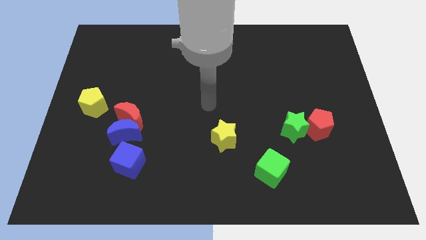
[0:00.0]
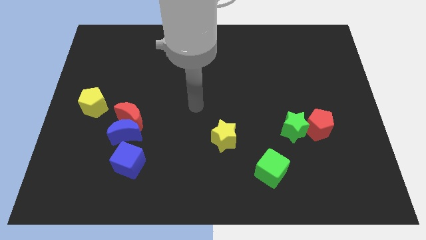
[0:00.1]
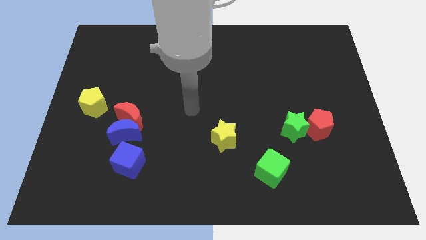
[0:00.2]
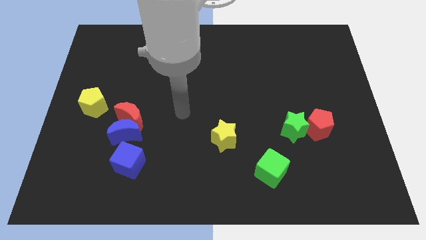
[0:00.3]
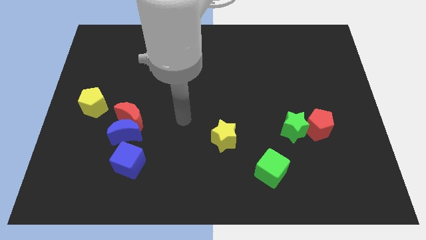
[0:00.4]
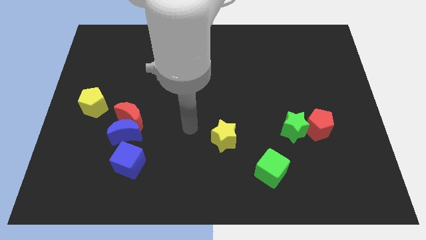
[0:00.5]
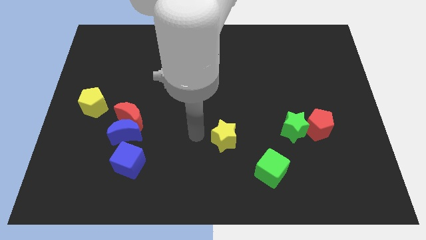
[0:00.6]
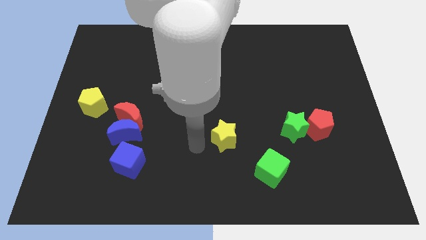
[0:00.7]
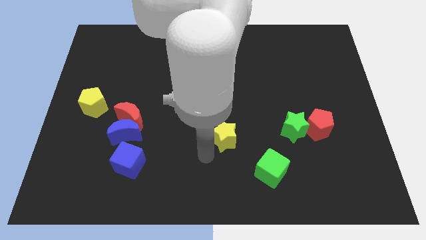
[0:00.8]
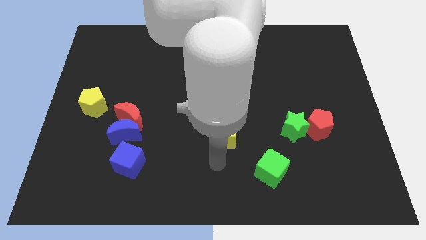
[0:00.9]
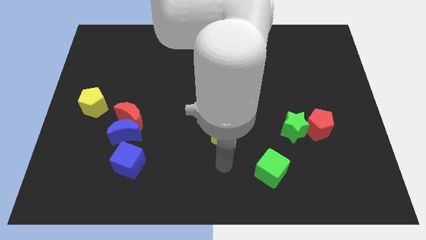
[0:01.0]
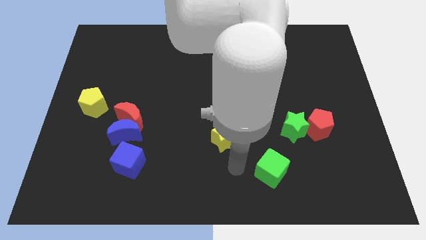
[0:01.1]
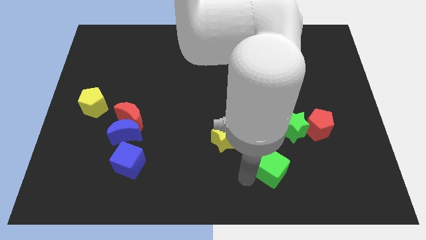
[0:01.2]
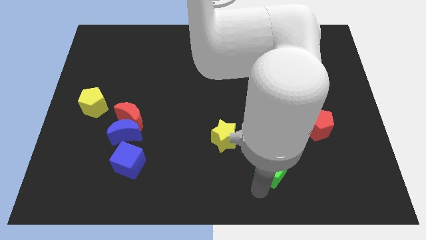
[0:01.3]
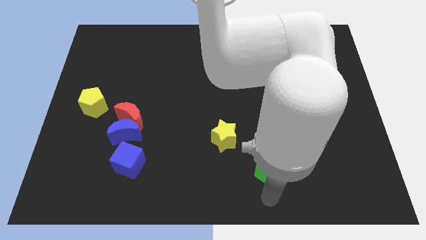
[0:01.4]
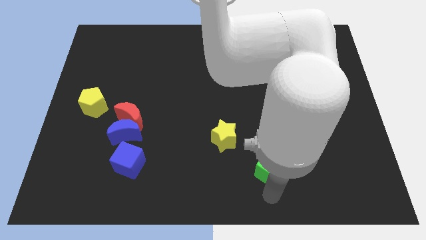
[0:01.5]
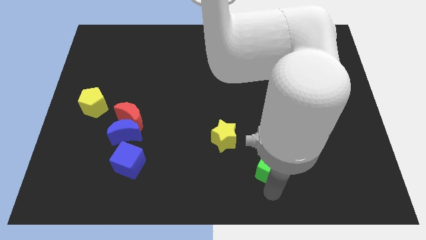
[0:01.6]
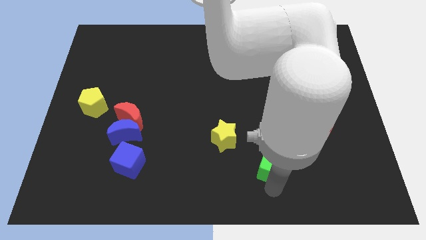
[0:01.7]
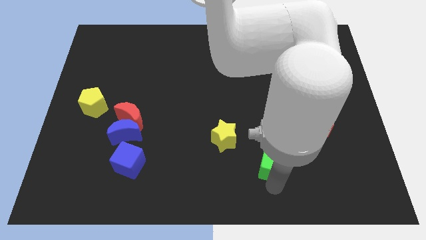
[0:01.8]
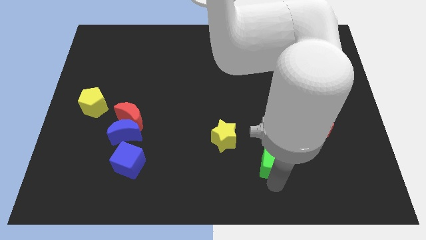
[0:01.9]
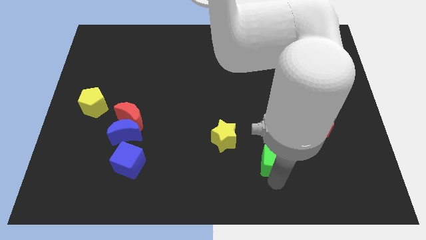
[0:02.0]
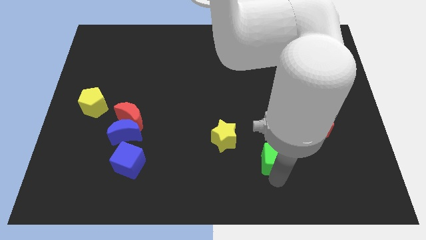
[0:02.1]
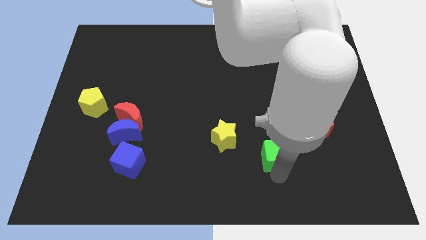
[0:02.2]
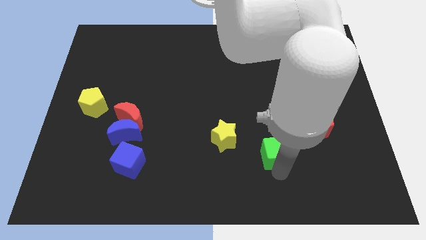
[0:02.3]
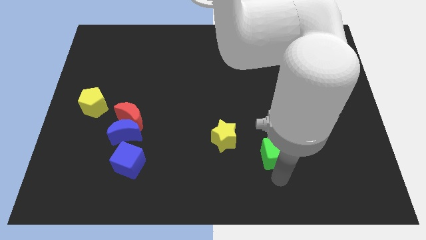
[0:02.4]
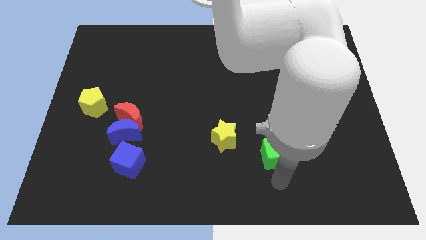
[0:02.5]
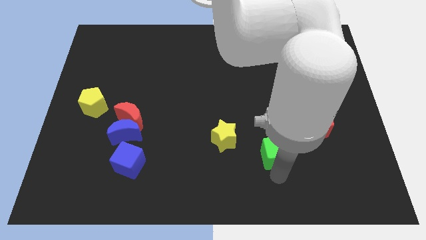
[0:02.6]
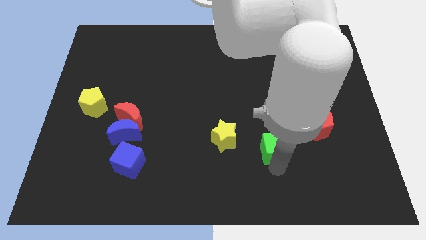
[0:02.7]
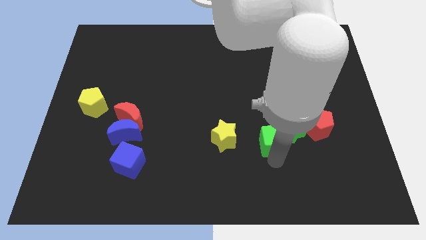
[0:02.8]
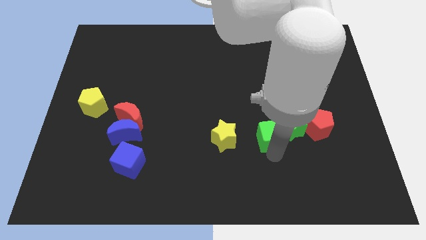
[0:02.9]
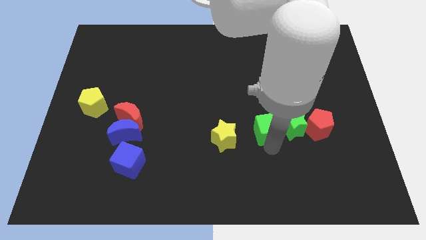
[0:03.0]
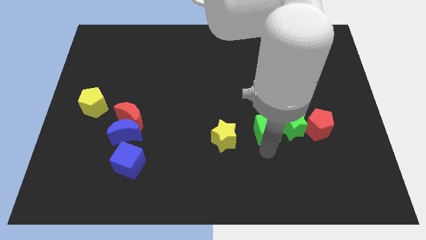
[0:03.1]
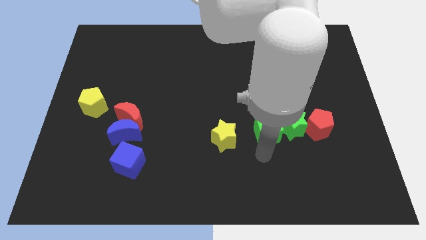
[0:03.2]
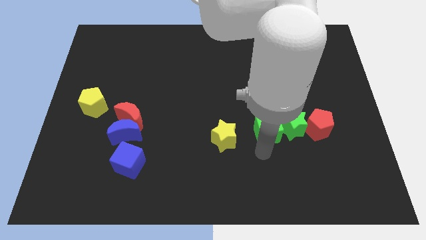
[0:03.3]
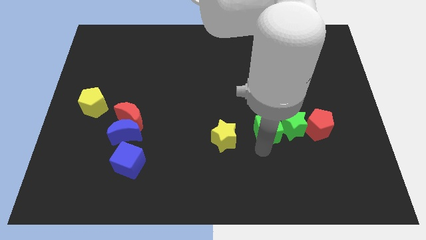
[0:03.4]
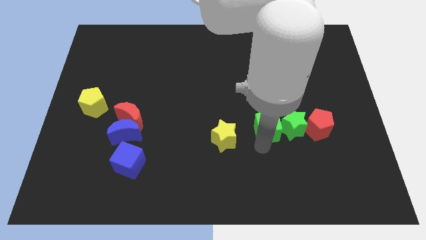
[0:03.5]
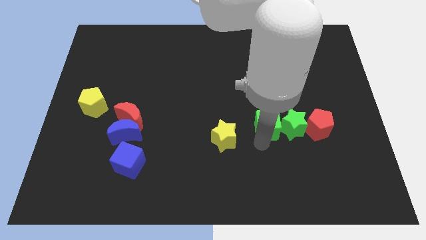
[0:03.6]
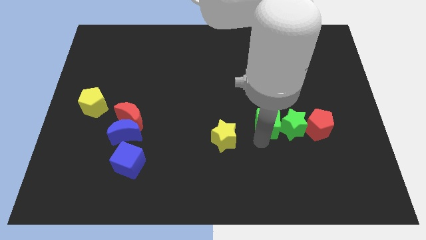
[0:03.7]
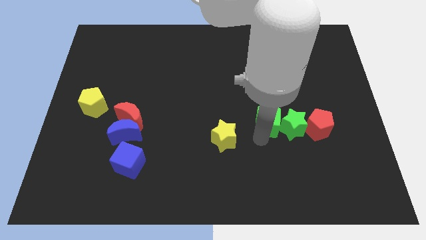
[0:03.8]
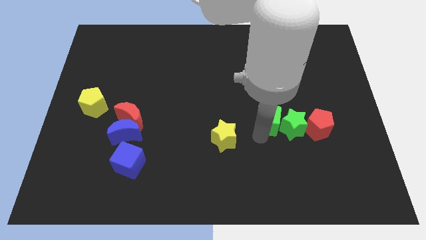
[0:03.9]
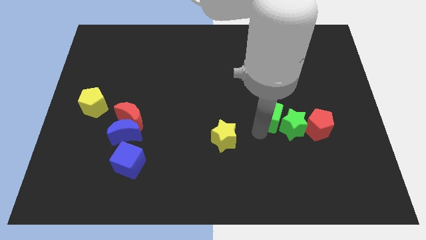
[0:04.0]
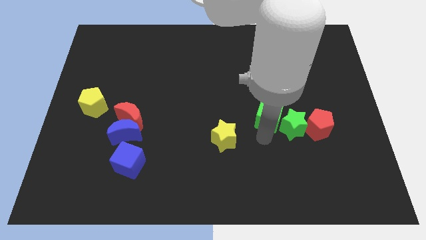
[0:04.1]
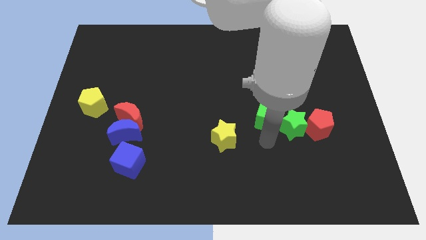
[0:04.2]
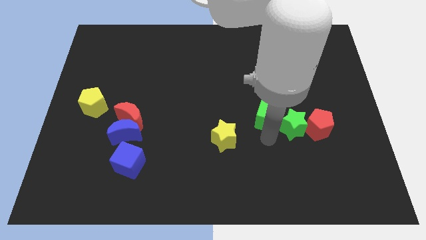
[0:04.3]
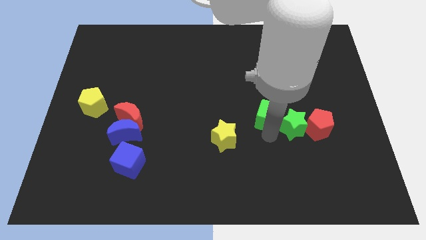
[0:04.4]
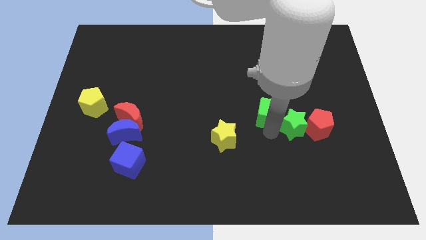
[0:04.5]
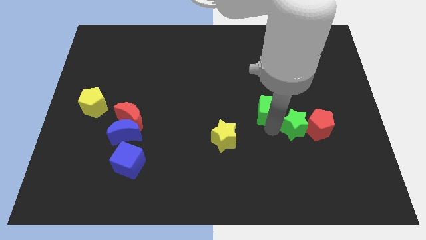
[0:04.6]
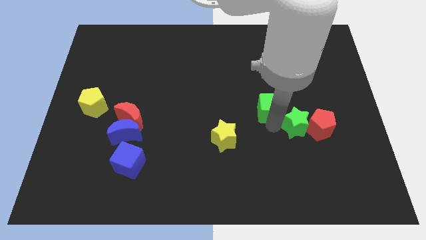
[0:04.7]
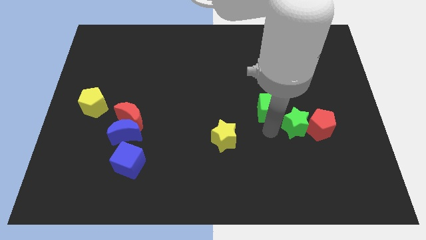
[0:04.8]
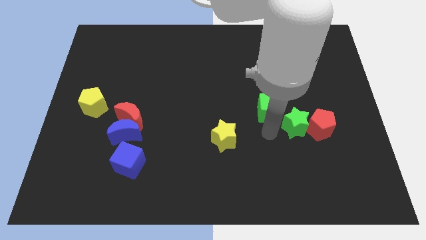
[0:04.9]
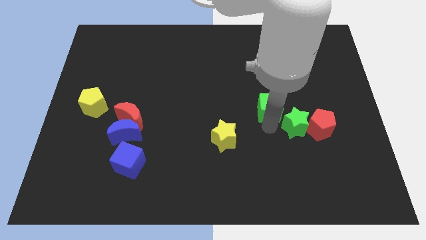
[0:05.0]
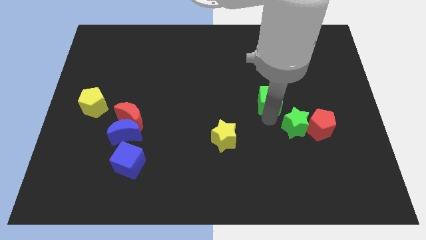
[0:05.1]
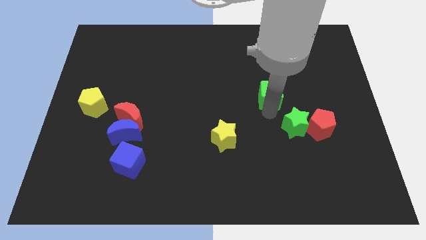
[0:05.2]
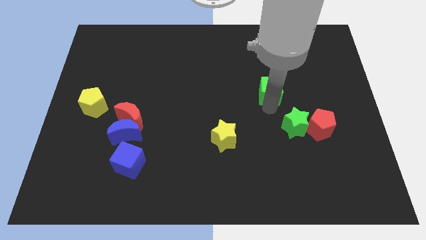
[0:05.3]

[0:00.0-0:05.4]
slide the green cube up

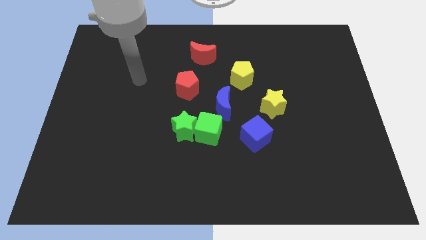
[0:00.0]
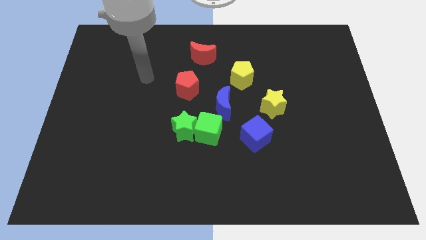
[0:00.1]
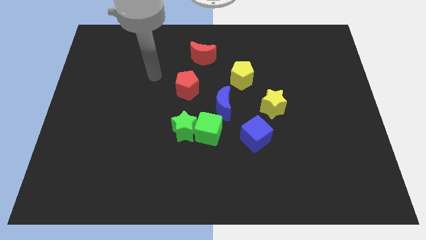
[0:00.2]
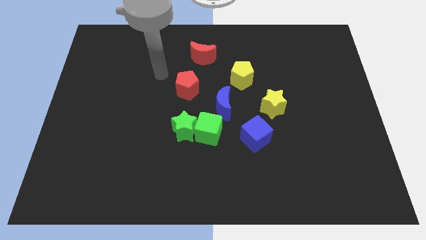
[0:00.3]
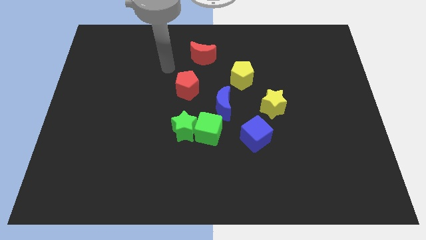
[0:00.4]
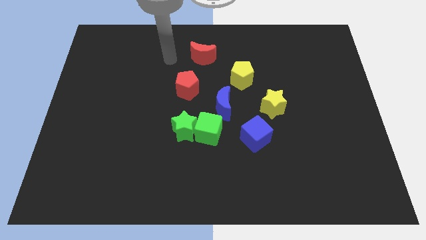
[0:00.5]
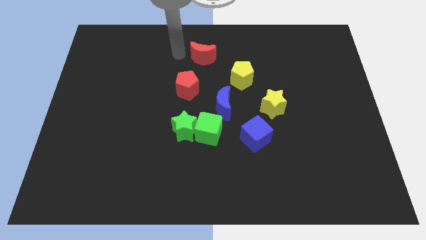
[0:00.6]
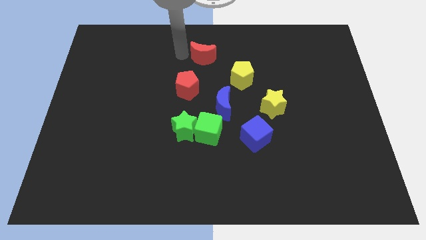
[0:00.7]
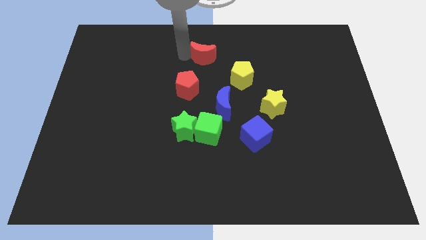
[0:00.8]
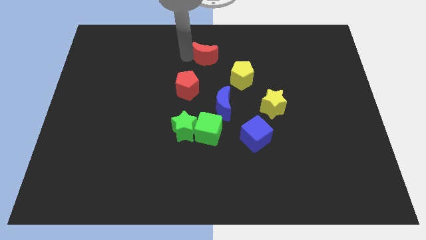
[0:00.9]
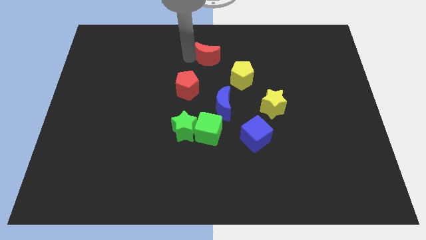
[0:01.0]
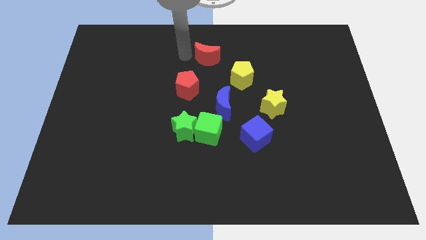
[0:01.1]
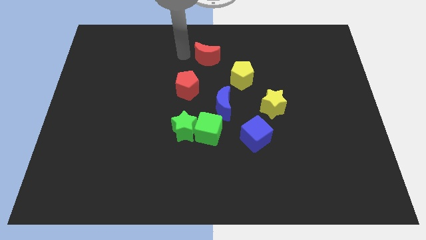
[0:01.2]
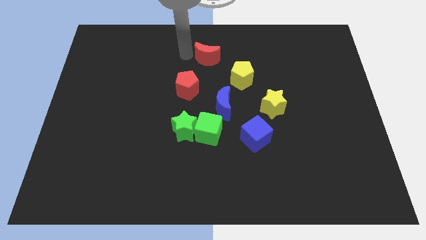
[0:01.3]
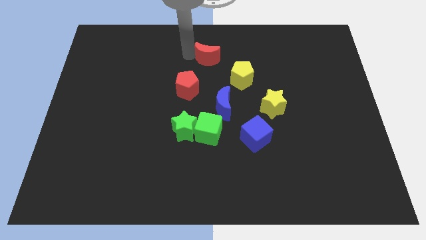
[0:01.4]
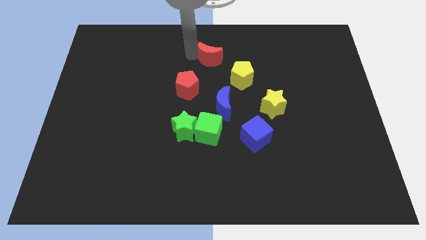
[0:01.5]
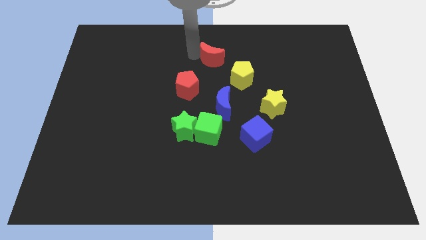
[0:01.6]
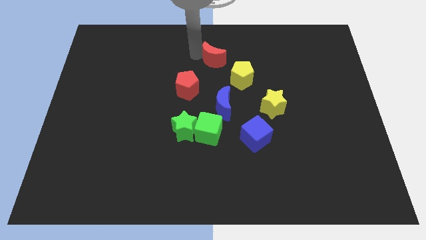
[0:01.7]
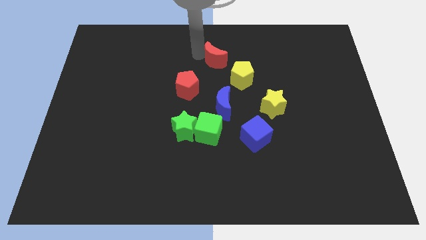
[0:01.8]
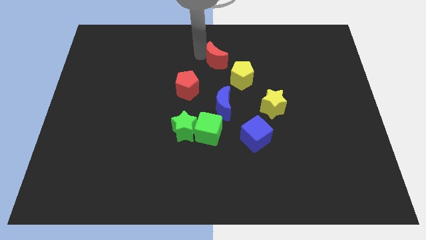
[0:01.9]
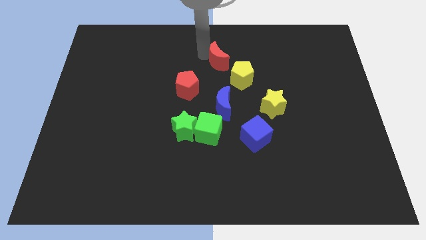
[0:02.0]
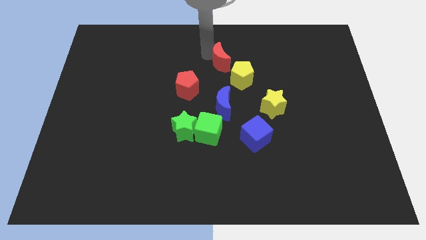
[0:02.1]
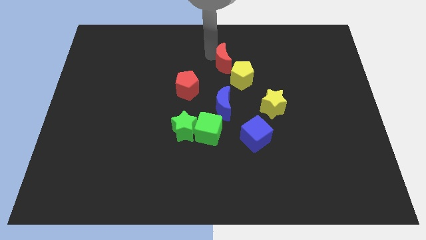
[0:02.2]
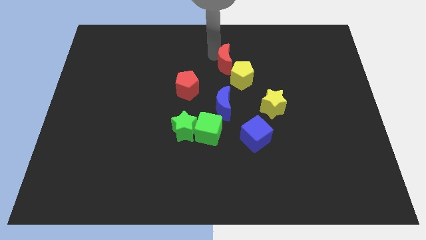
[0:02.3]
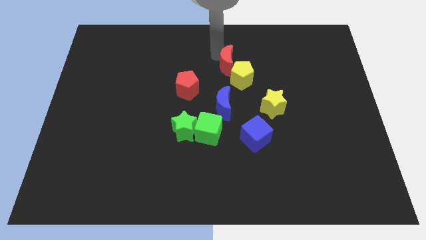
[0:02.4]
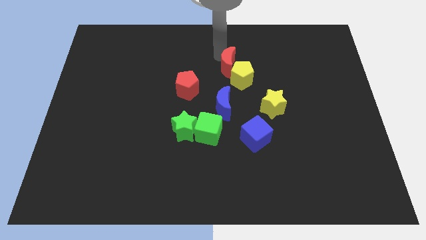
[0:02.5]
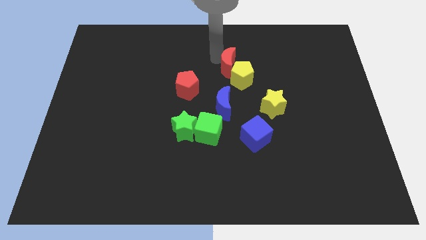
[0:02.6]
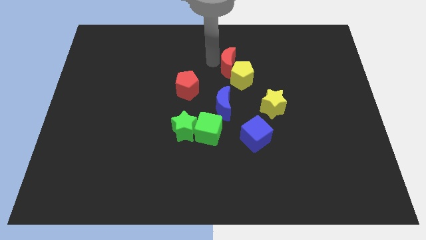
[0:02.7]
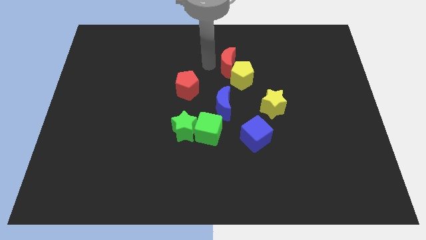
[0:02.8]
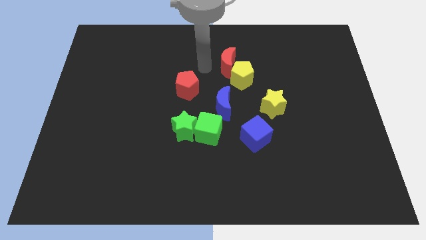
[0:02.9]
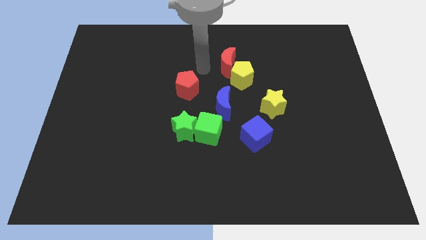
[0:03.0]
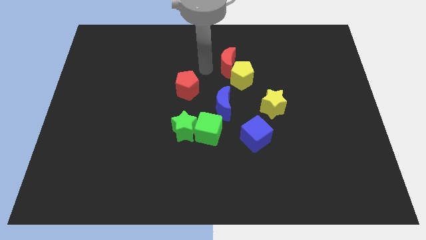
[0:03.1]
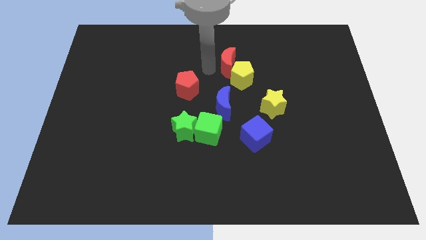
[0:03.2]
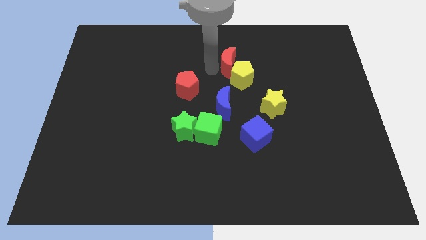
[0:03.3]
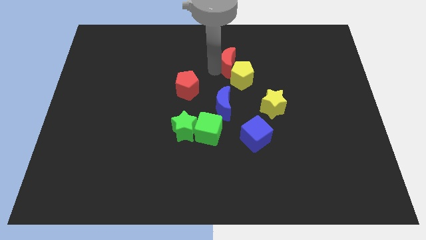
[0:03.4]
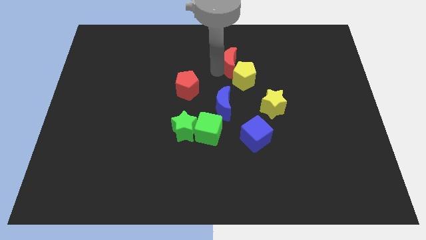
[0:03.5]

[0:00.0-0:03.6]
move the red moon down and then right a little bit
